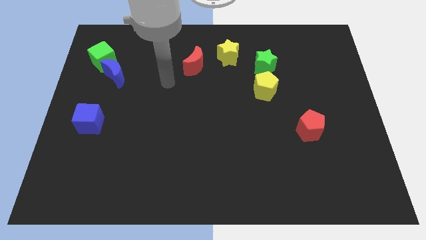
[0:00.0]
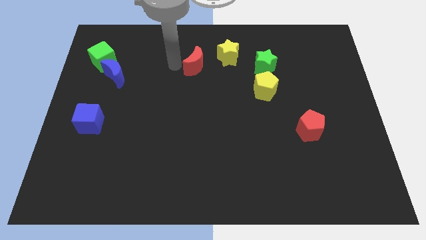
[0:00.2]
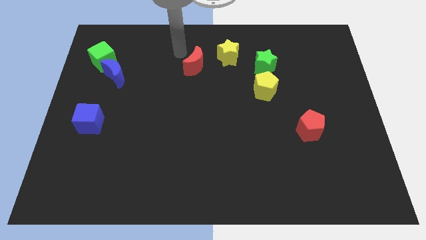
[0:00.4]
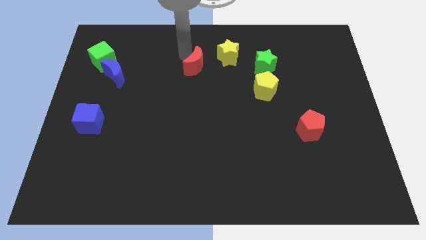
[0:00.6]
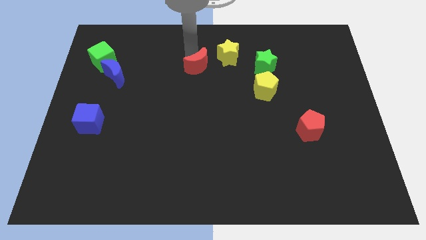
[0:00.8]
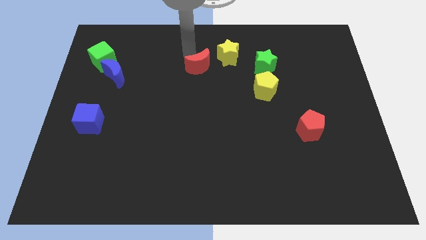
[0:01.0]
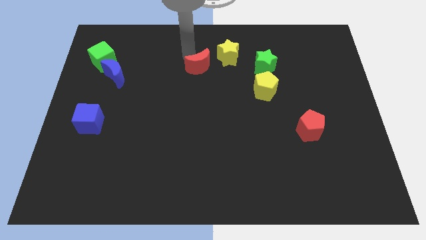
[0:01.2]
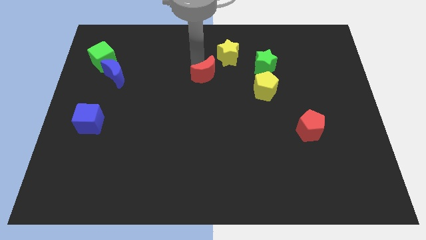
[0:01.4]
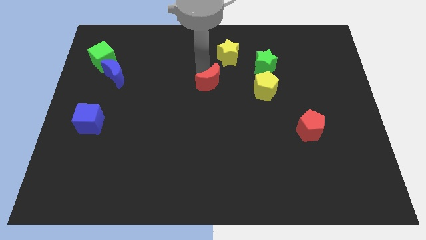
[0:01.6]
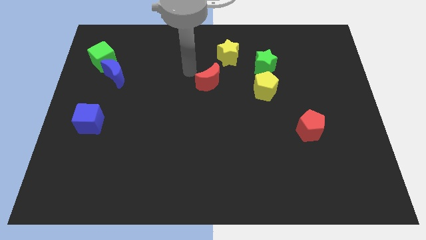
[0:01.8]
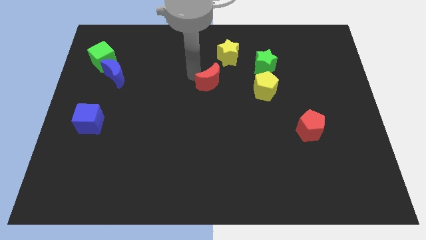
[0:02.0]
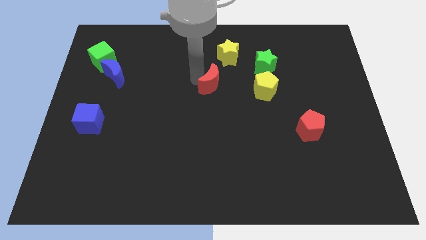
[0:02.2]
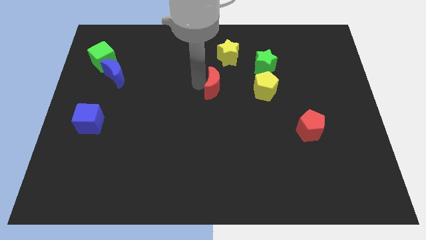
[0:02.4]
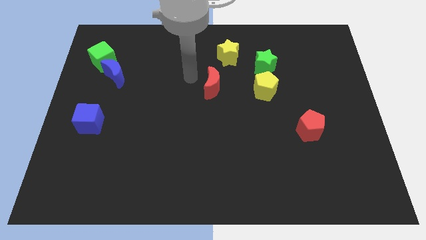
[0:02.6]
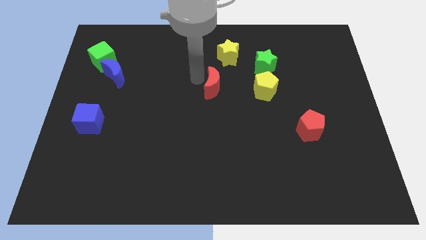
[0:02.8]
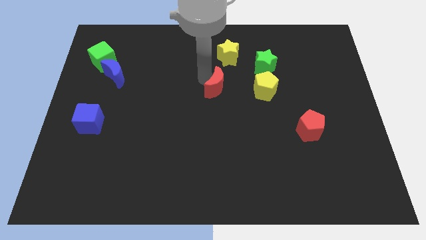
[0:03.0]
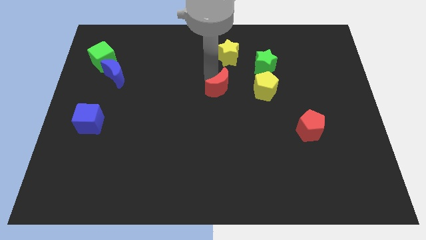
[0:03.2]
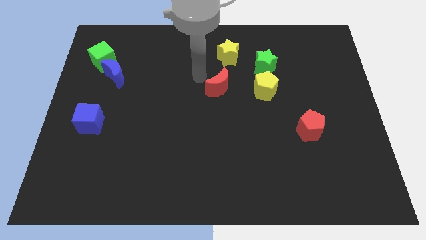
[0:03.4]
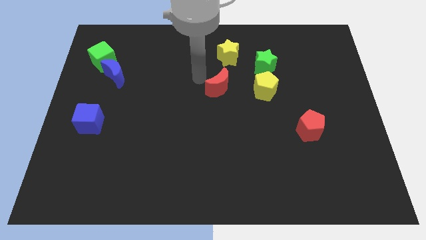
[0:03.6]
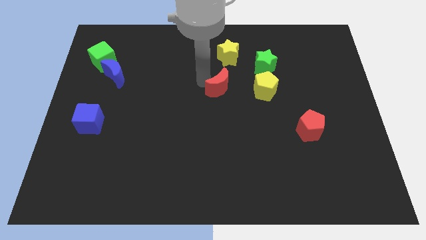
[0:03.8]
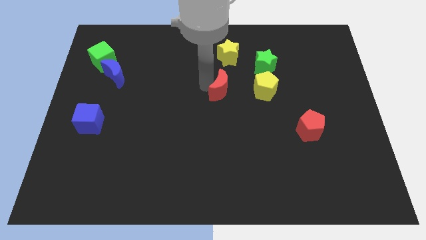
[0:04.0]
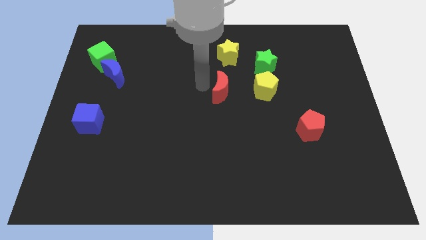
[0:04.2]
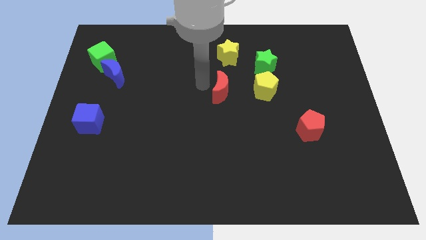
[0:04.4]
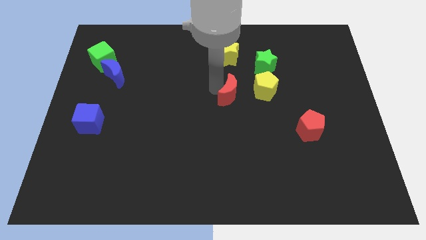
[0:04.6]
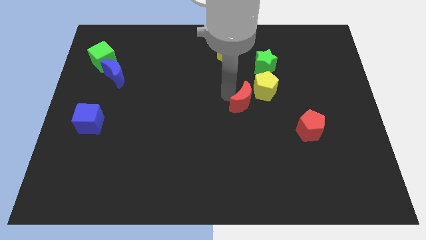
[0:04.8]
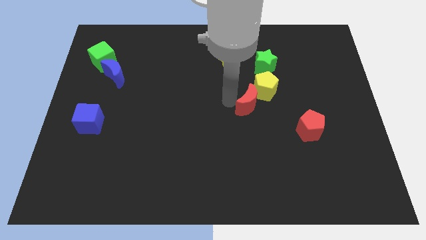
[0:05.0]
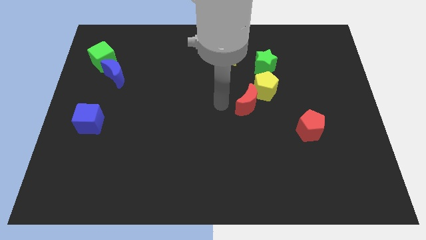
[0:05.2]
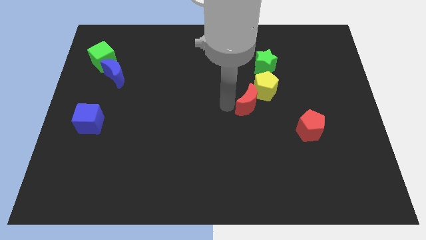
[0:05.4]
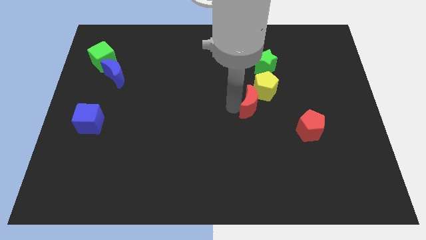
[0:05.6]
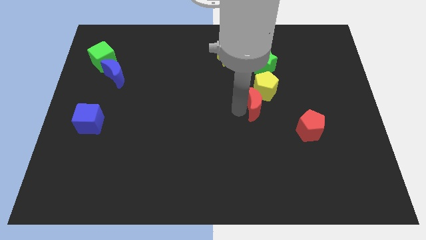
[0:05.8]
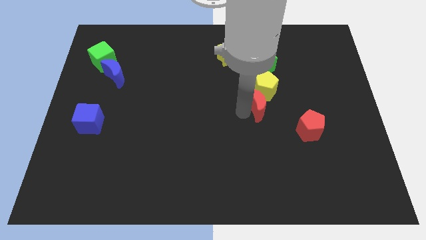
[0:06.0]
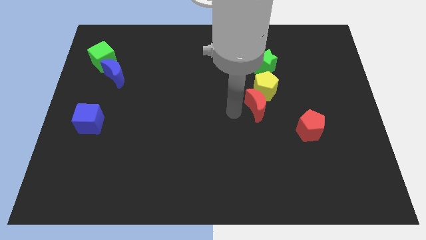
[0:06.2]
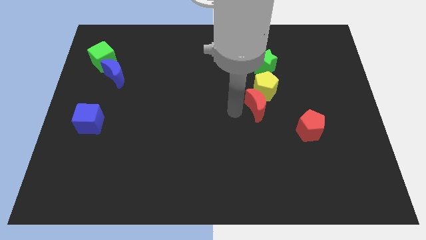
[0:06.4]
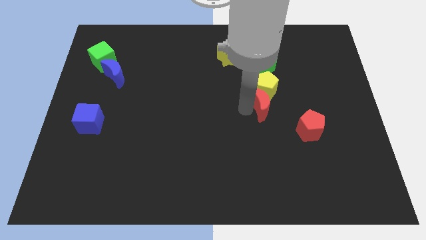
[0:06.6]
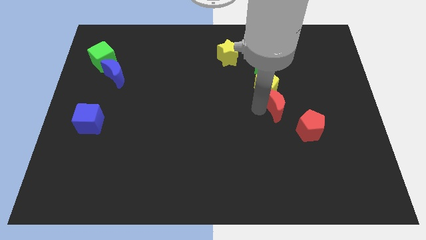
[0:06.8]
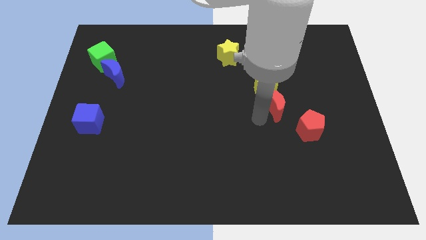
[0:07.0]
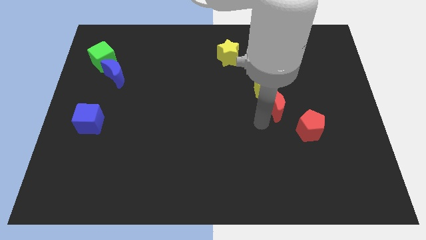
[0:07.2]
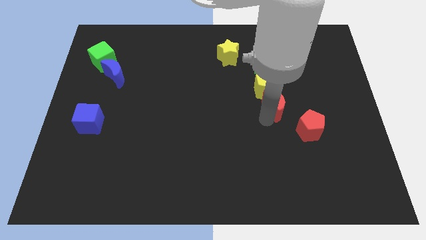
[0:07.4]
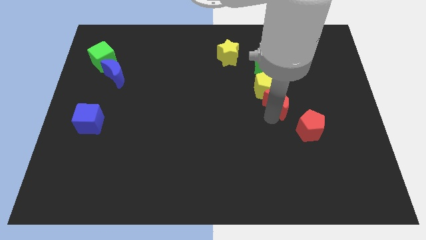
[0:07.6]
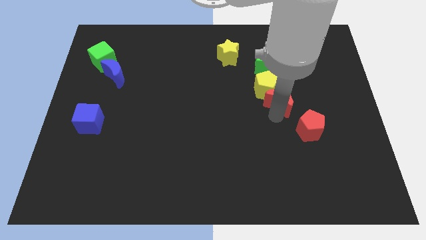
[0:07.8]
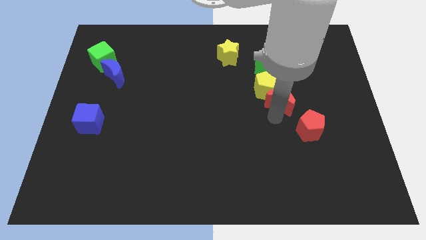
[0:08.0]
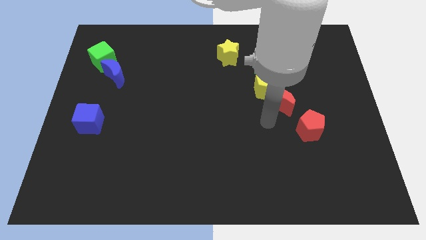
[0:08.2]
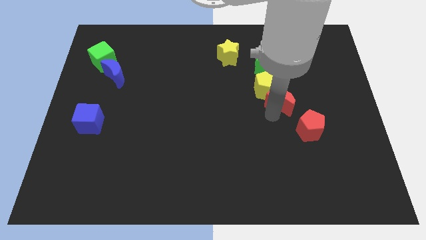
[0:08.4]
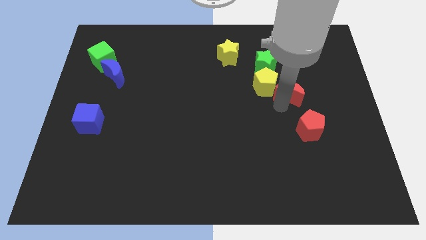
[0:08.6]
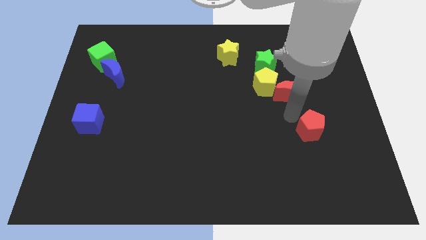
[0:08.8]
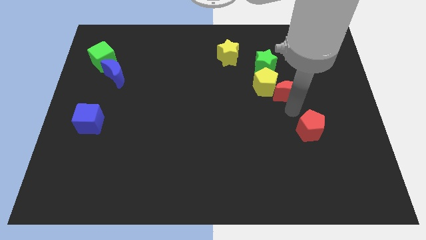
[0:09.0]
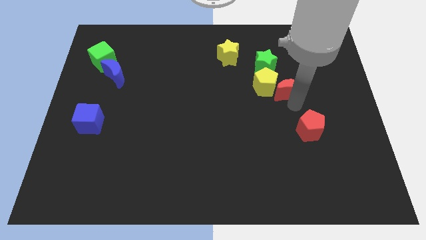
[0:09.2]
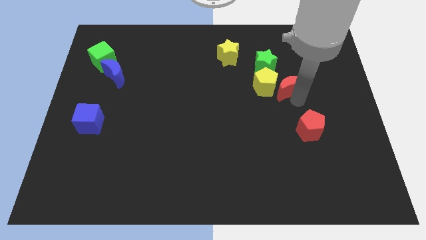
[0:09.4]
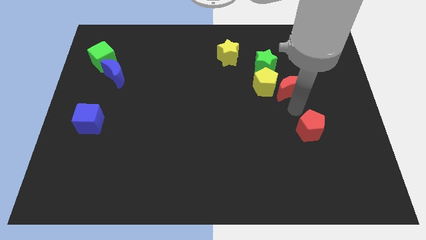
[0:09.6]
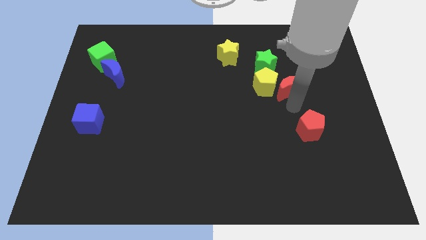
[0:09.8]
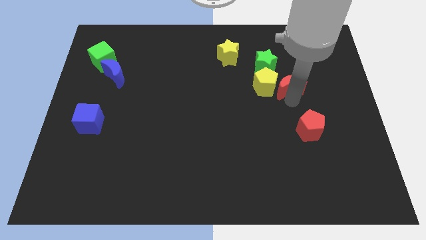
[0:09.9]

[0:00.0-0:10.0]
move the red moon to the top right side of the yellow pentagon

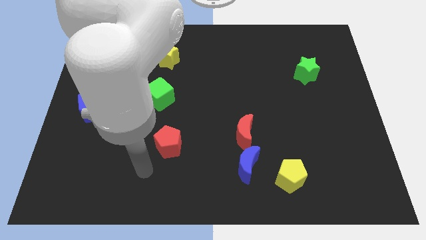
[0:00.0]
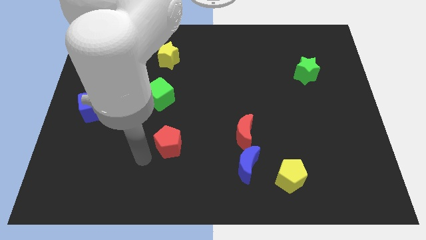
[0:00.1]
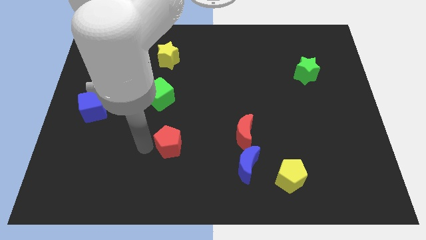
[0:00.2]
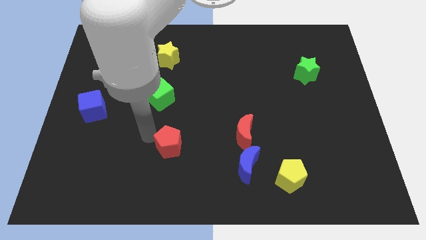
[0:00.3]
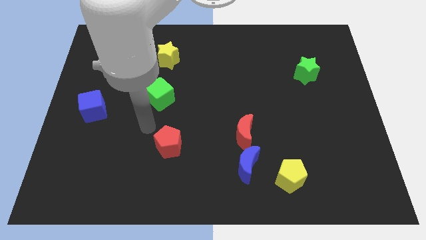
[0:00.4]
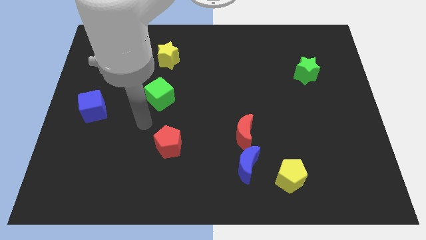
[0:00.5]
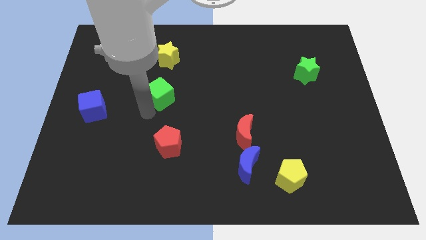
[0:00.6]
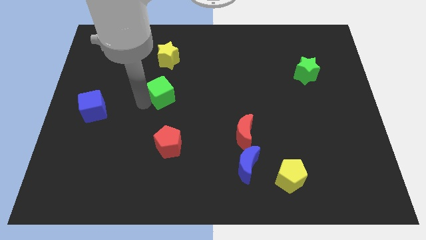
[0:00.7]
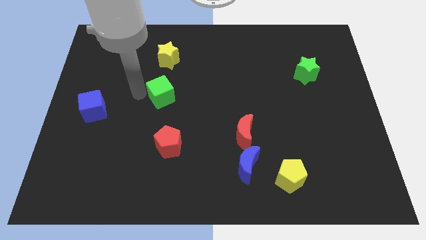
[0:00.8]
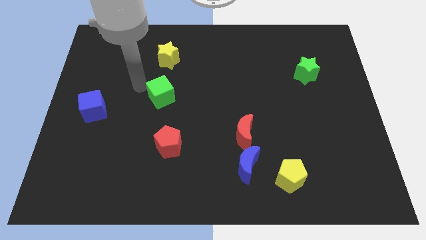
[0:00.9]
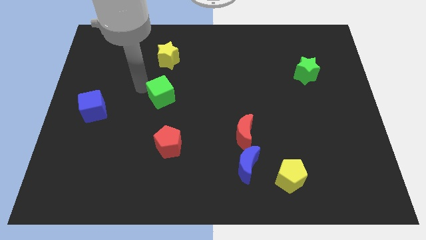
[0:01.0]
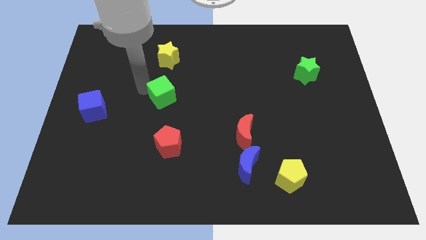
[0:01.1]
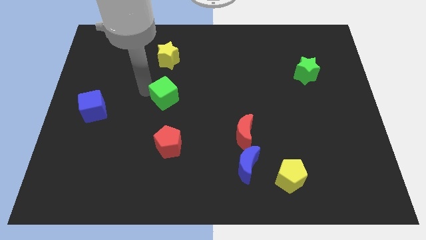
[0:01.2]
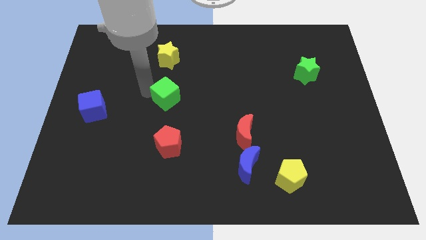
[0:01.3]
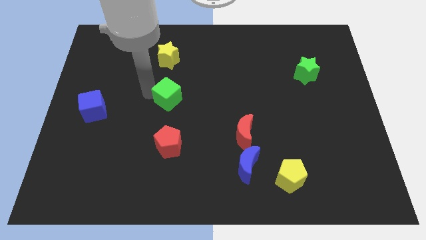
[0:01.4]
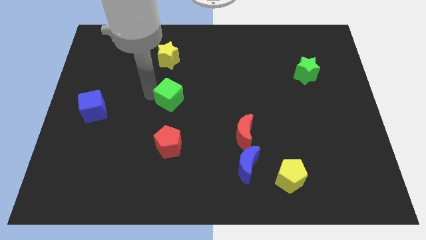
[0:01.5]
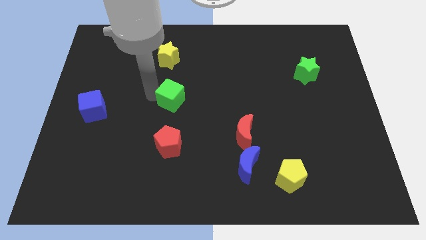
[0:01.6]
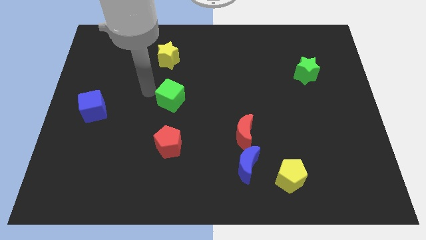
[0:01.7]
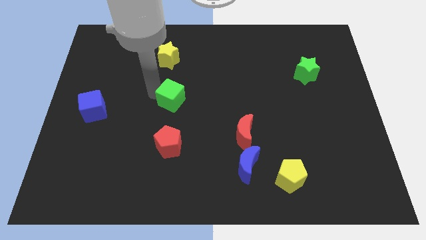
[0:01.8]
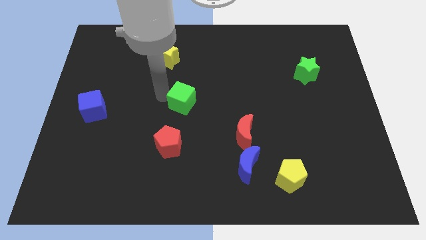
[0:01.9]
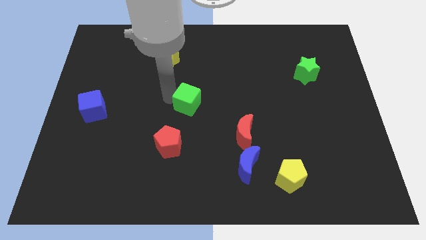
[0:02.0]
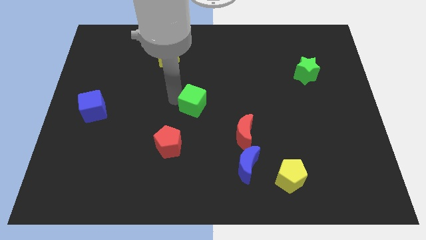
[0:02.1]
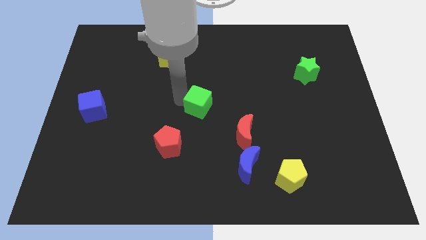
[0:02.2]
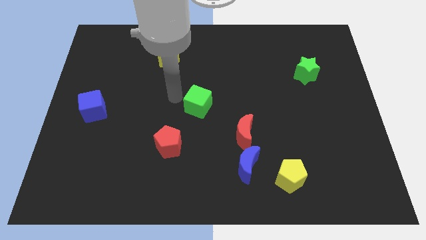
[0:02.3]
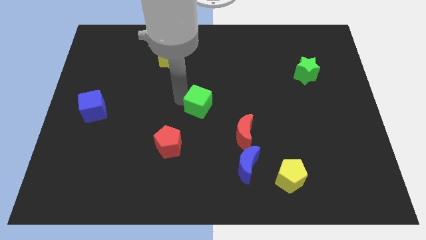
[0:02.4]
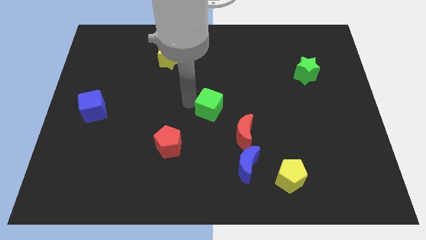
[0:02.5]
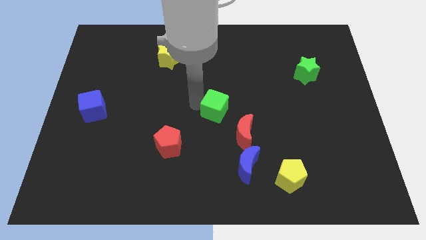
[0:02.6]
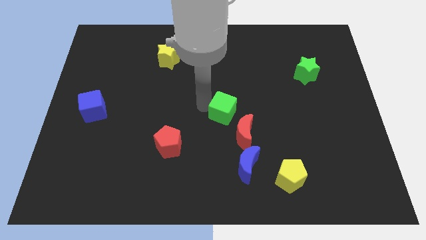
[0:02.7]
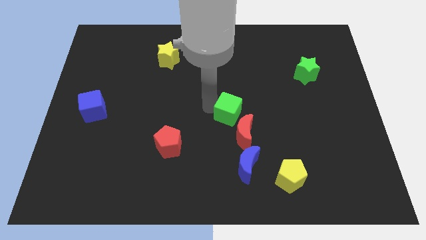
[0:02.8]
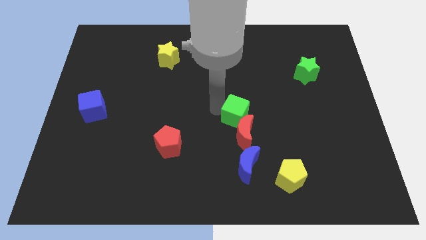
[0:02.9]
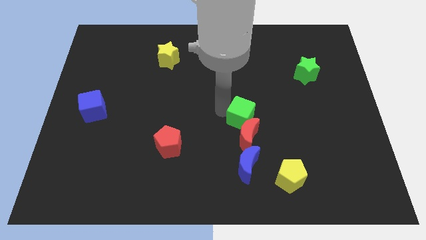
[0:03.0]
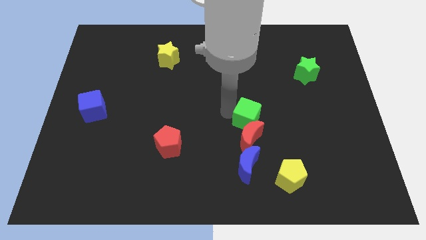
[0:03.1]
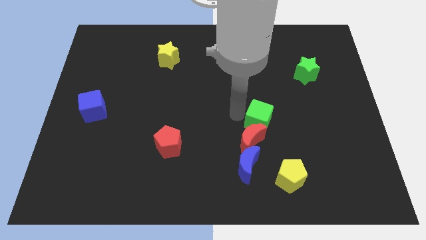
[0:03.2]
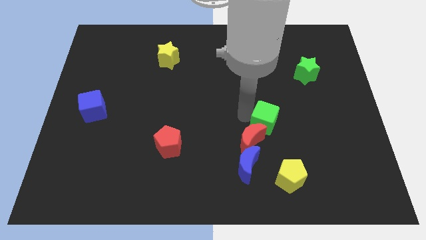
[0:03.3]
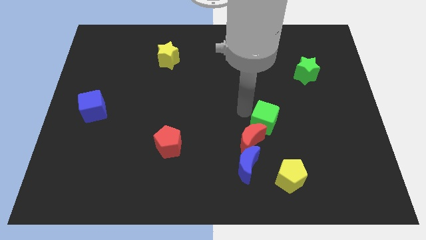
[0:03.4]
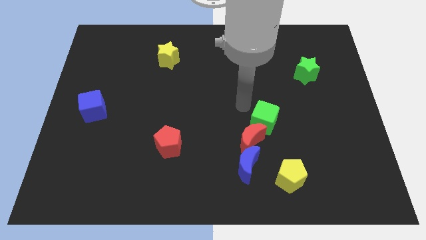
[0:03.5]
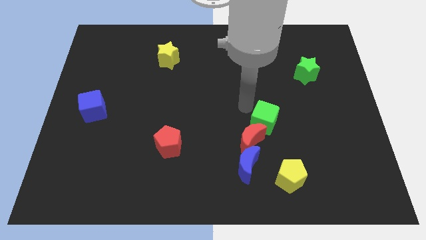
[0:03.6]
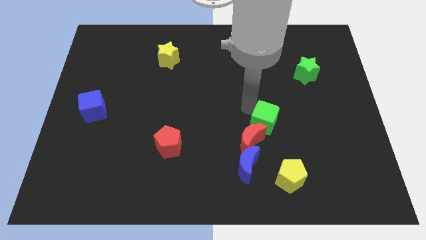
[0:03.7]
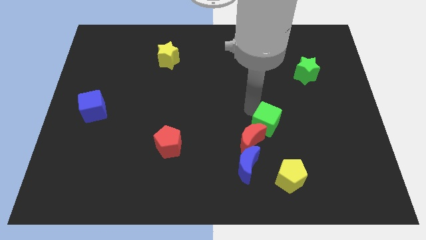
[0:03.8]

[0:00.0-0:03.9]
put the green cube above the yellow pentagon
